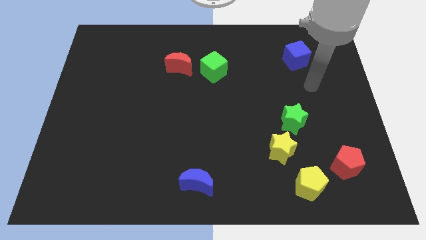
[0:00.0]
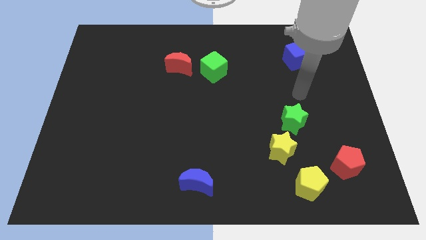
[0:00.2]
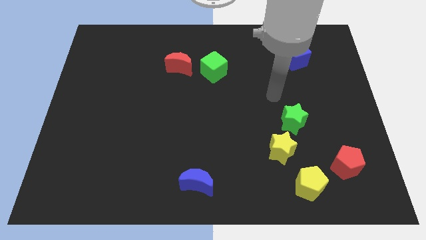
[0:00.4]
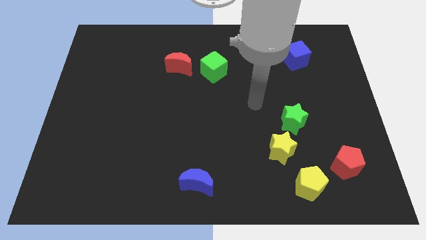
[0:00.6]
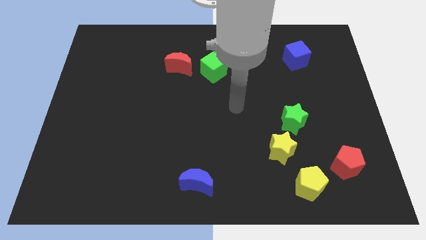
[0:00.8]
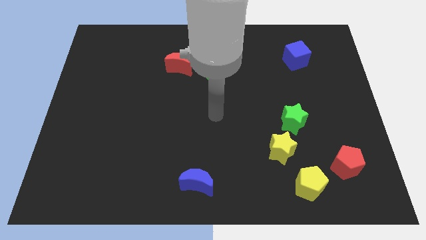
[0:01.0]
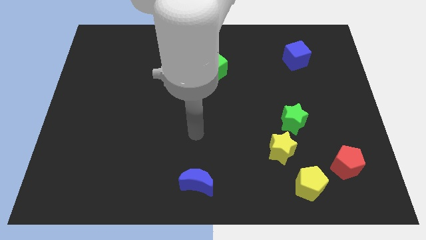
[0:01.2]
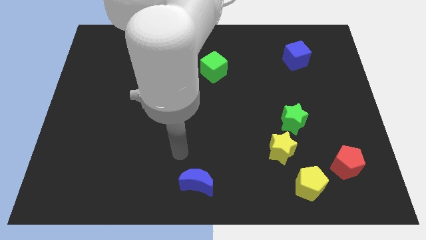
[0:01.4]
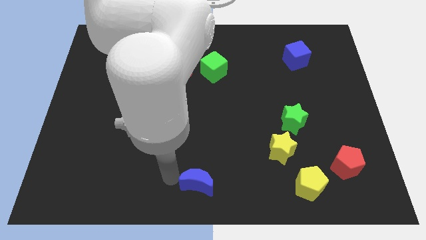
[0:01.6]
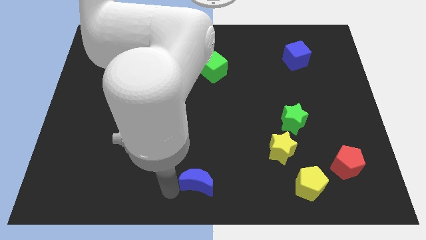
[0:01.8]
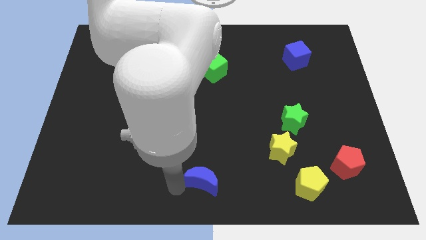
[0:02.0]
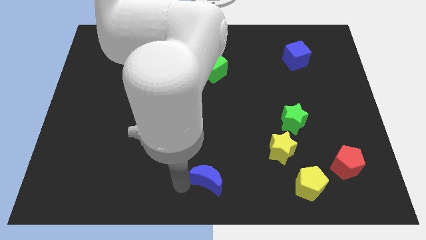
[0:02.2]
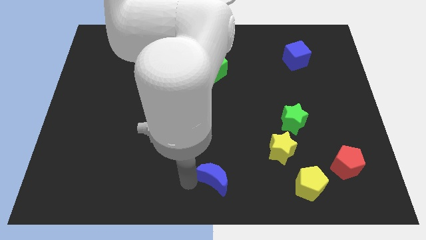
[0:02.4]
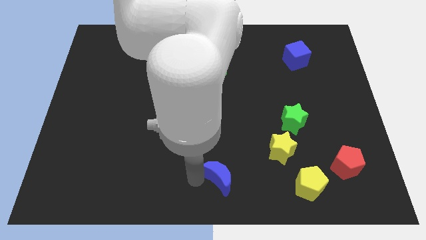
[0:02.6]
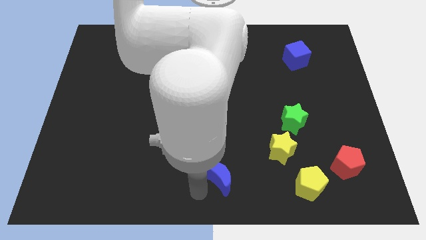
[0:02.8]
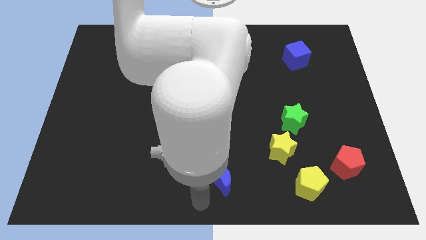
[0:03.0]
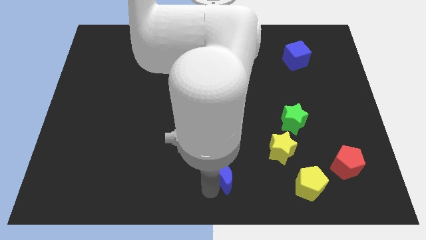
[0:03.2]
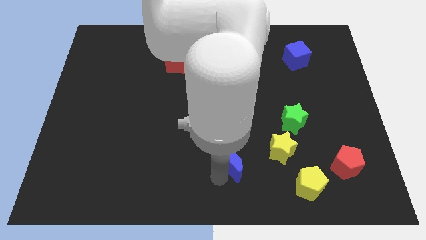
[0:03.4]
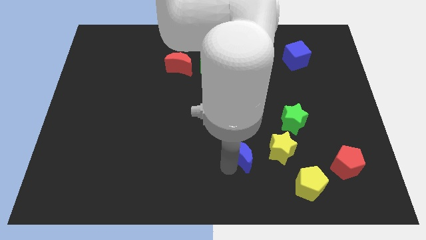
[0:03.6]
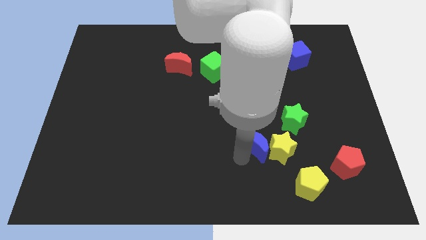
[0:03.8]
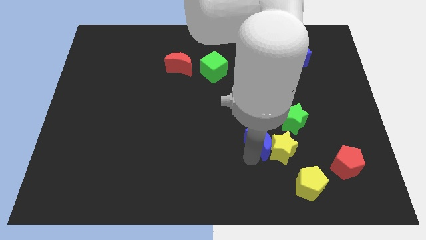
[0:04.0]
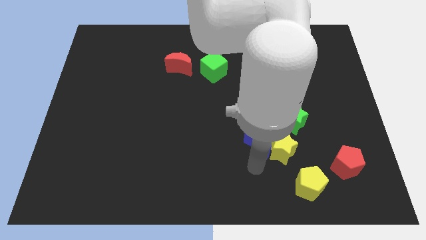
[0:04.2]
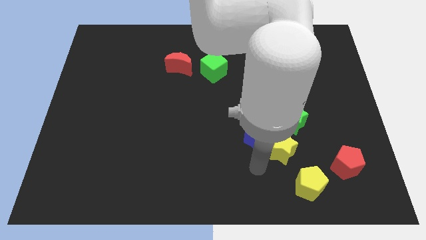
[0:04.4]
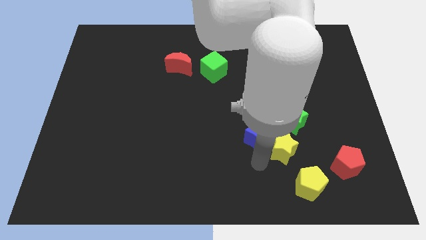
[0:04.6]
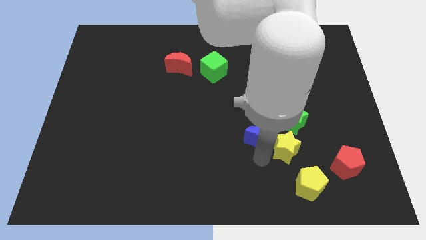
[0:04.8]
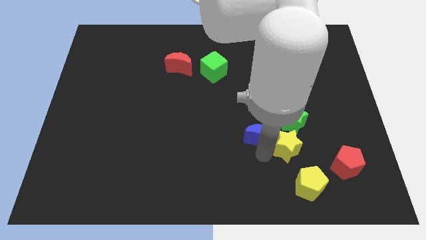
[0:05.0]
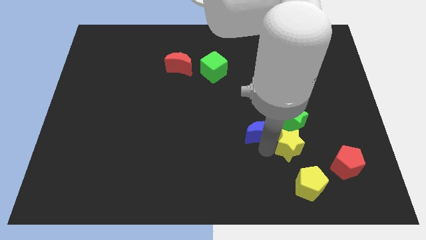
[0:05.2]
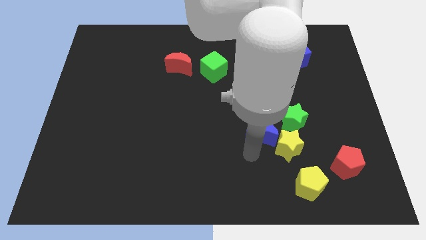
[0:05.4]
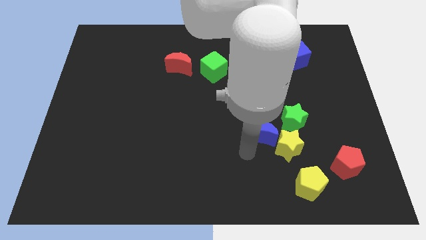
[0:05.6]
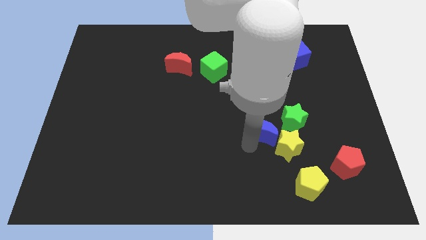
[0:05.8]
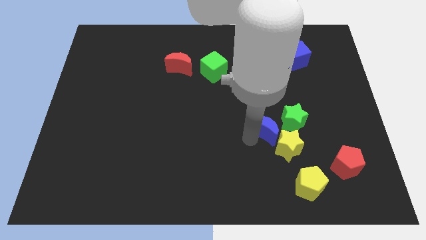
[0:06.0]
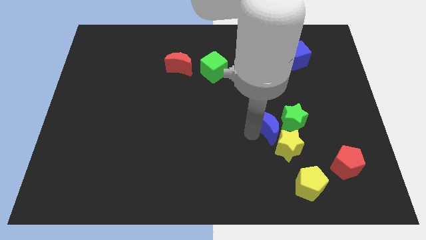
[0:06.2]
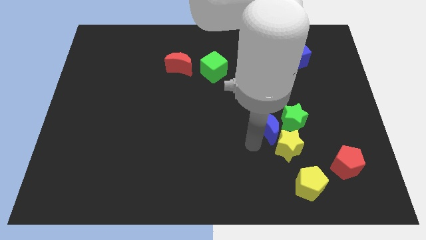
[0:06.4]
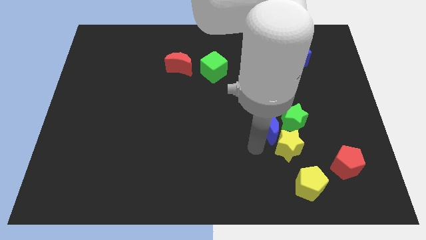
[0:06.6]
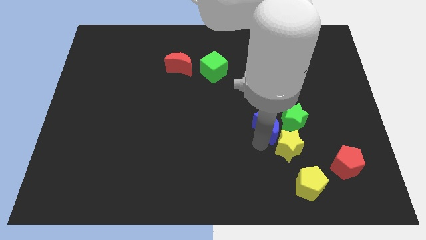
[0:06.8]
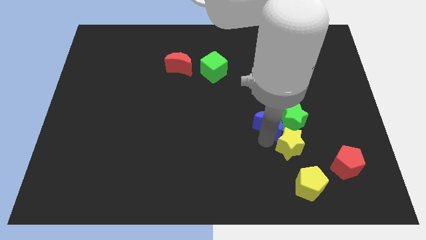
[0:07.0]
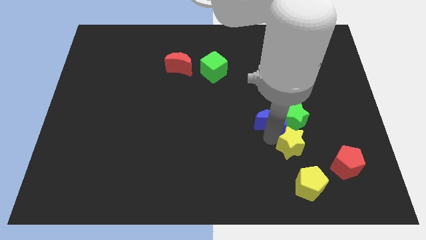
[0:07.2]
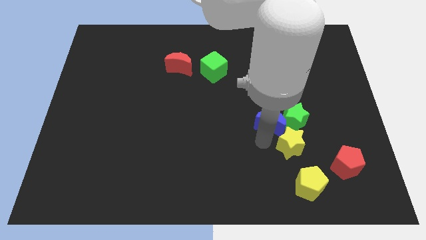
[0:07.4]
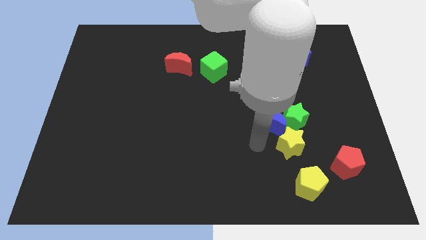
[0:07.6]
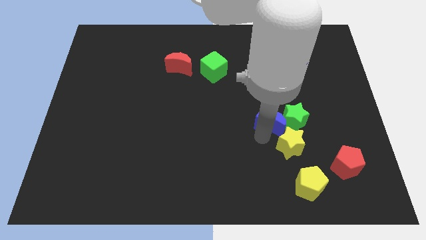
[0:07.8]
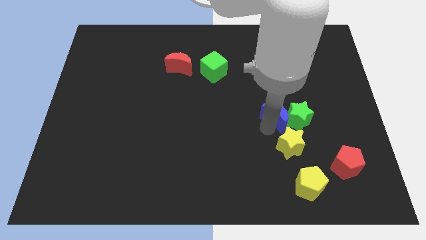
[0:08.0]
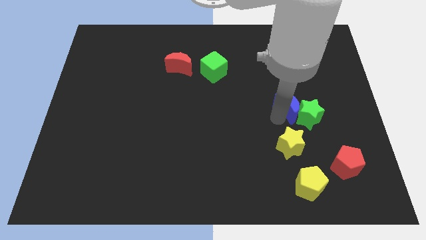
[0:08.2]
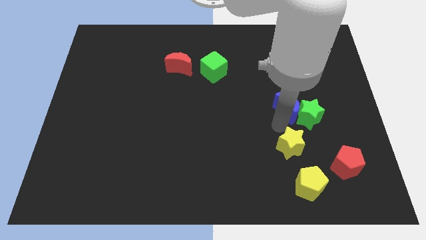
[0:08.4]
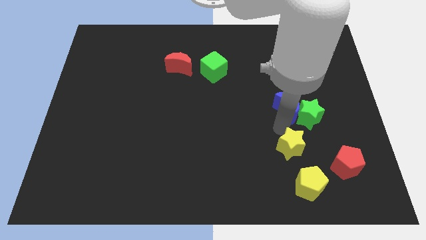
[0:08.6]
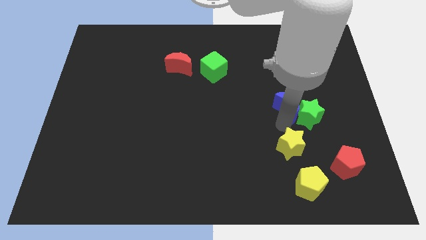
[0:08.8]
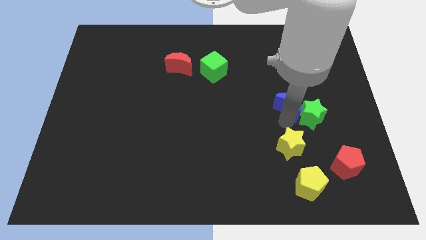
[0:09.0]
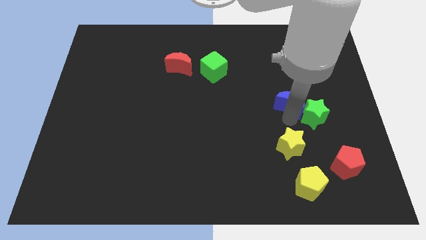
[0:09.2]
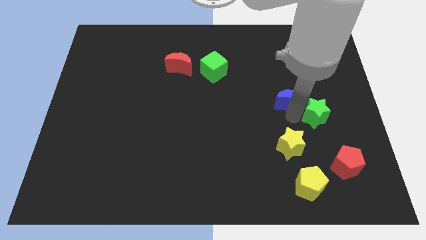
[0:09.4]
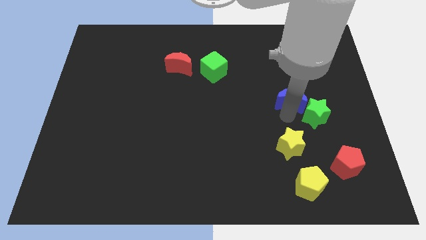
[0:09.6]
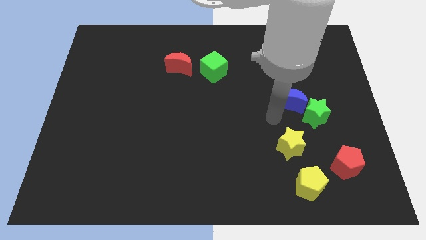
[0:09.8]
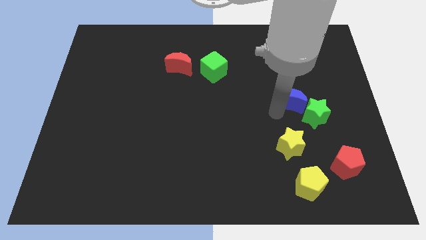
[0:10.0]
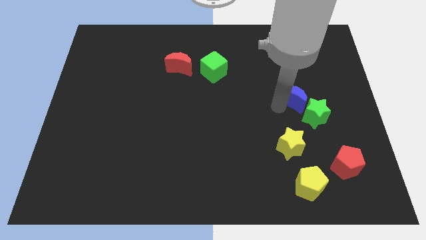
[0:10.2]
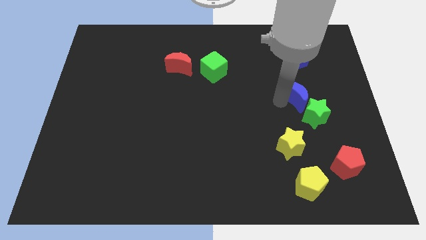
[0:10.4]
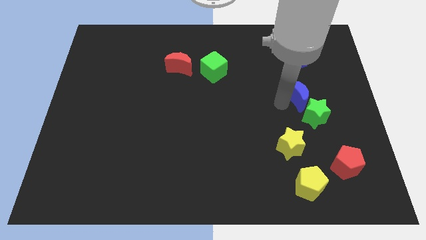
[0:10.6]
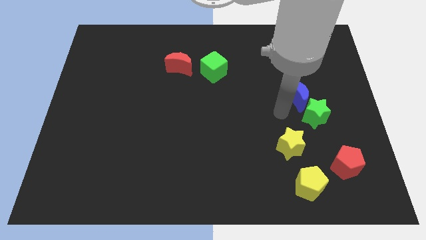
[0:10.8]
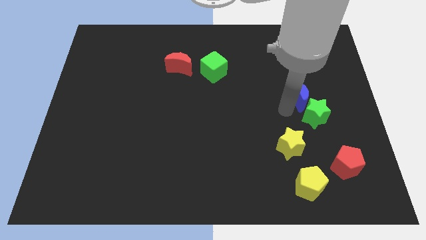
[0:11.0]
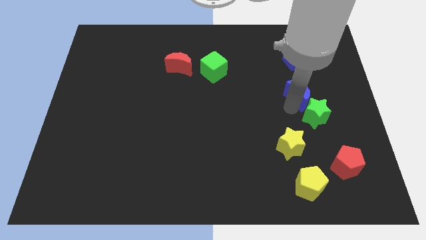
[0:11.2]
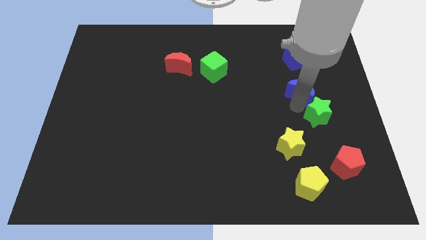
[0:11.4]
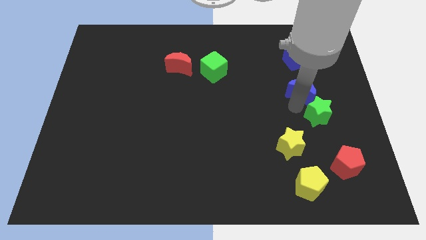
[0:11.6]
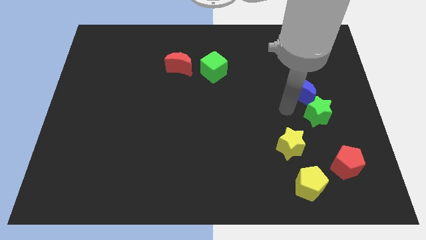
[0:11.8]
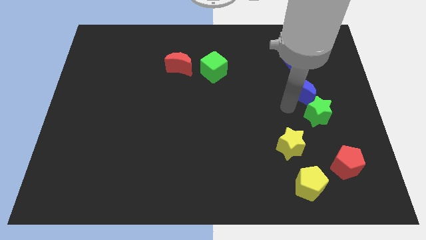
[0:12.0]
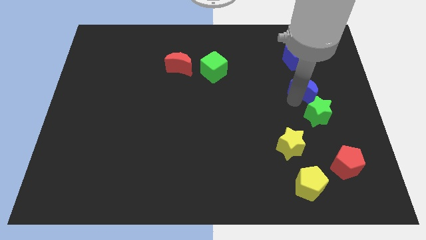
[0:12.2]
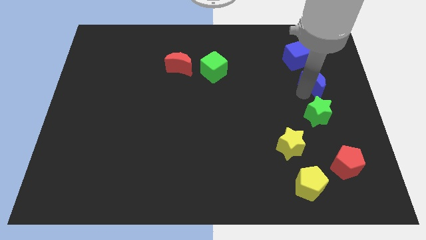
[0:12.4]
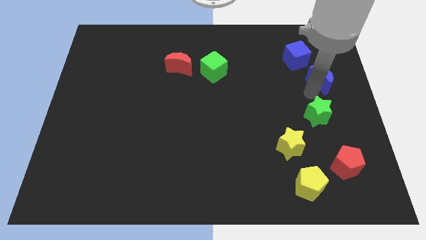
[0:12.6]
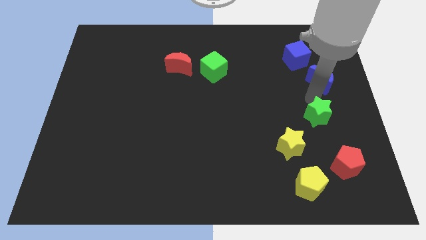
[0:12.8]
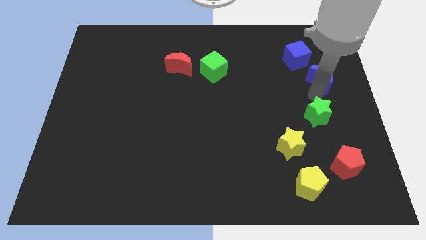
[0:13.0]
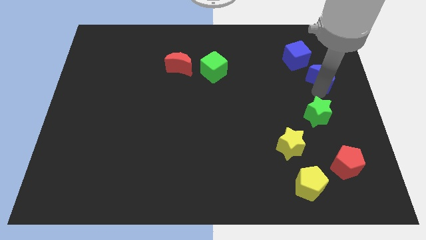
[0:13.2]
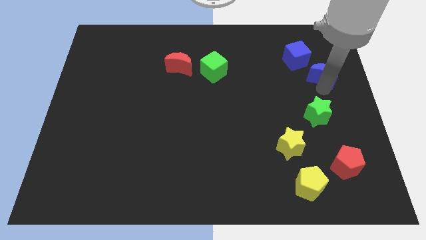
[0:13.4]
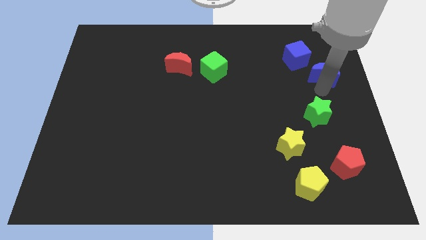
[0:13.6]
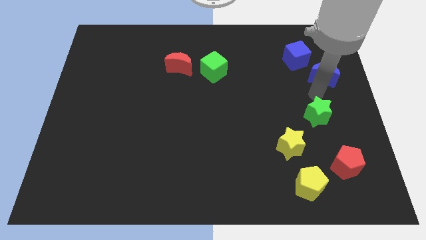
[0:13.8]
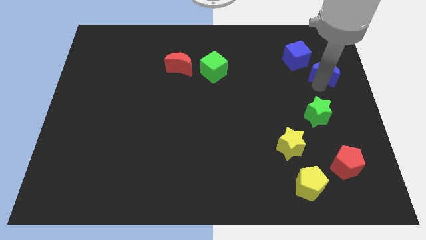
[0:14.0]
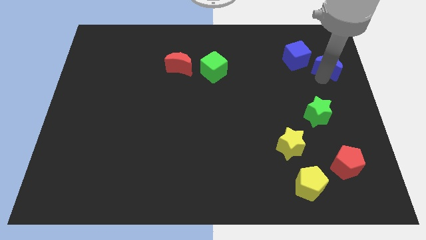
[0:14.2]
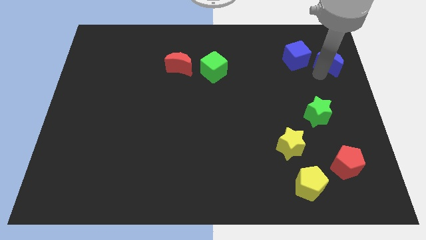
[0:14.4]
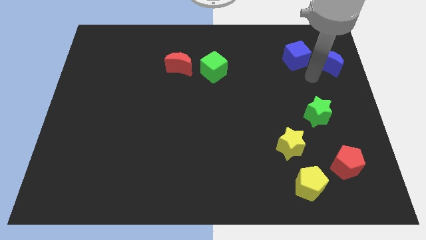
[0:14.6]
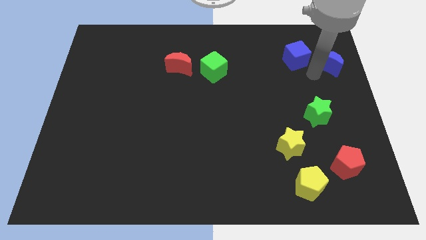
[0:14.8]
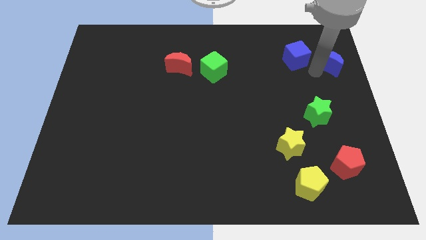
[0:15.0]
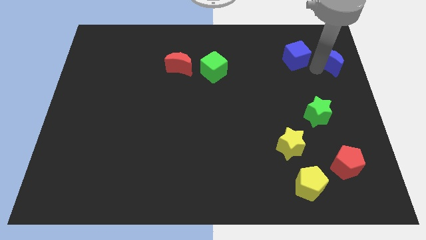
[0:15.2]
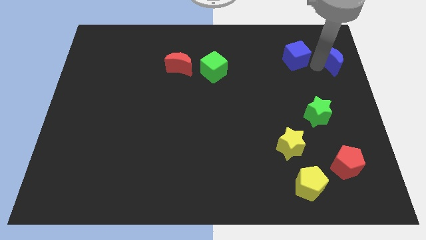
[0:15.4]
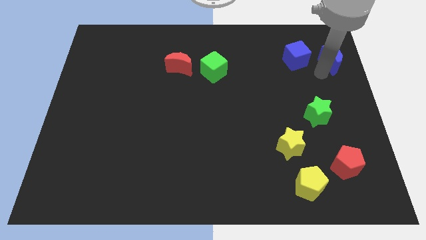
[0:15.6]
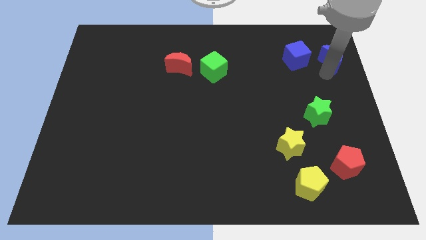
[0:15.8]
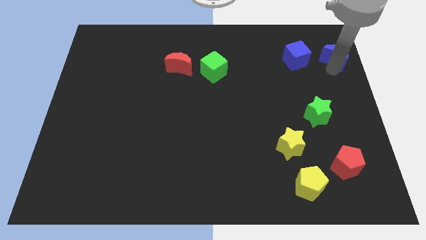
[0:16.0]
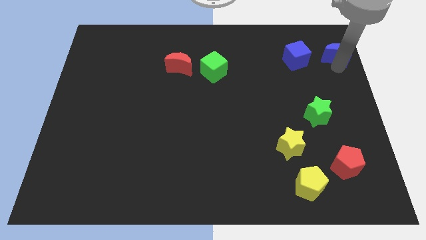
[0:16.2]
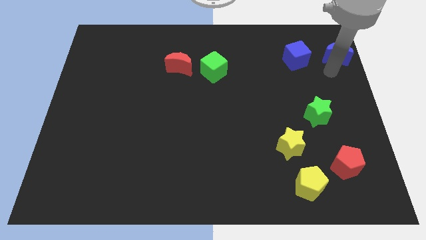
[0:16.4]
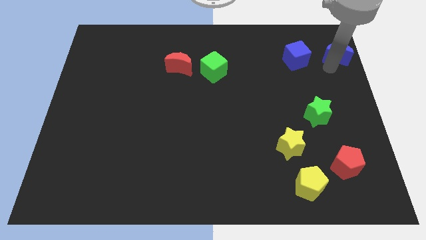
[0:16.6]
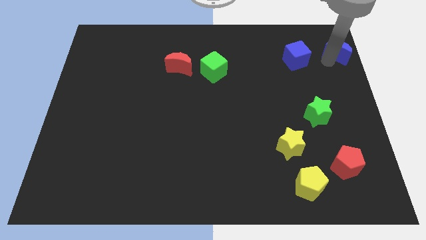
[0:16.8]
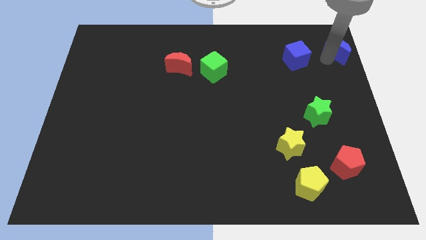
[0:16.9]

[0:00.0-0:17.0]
put the blue moon to the upper right corner
